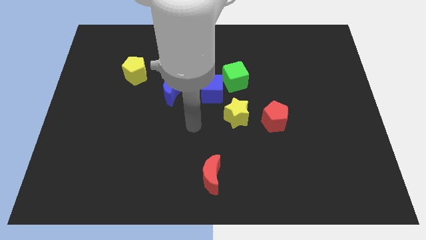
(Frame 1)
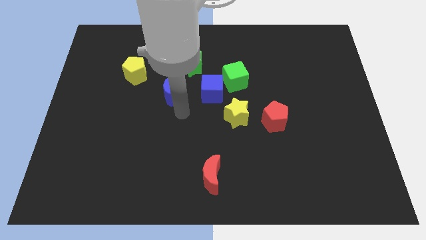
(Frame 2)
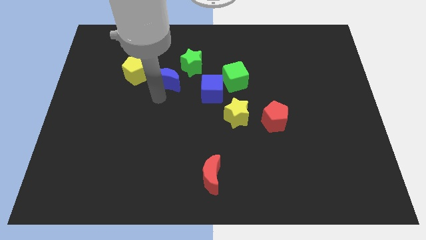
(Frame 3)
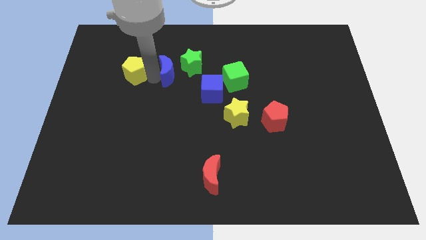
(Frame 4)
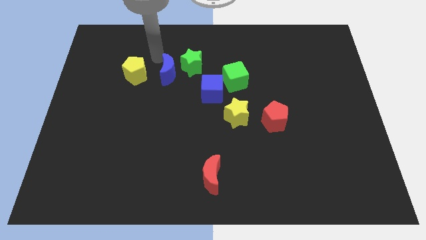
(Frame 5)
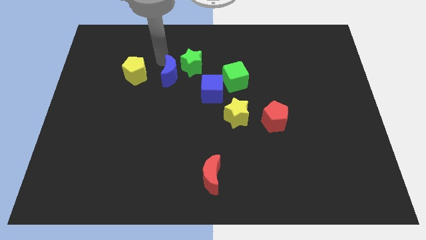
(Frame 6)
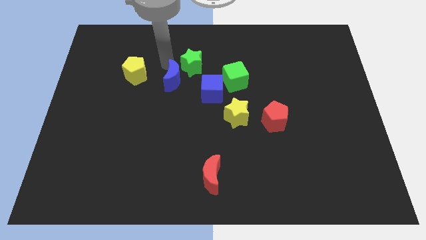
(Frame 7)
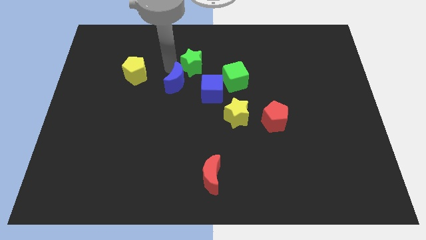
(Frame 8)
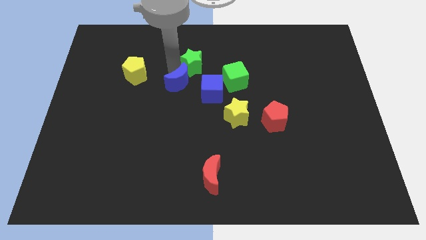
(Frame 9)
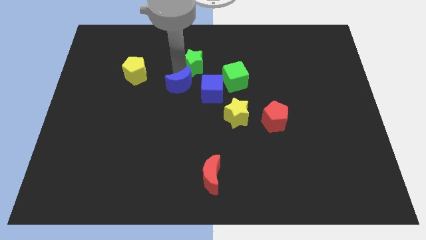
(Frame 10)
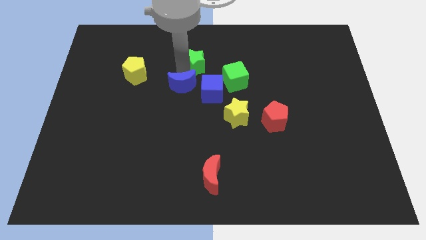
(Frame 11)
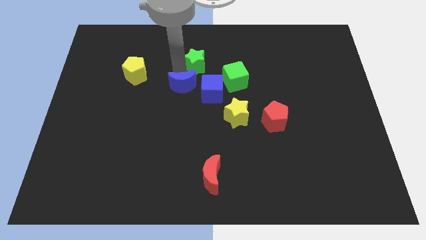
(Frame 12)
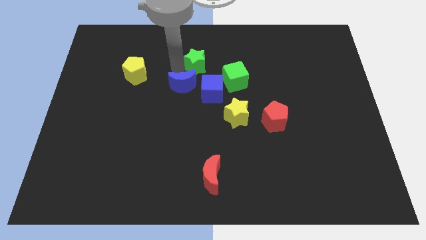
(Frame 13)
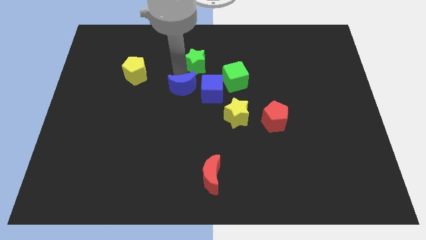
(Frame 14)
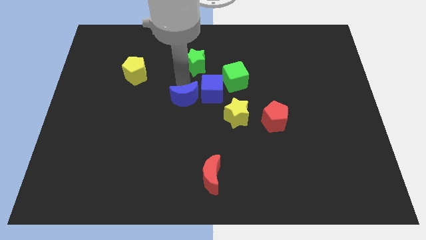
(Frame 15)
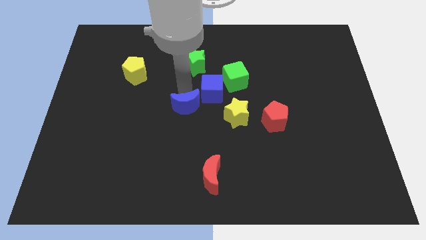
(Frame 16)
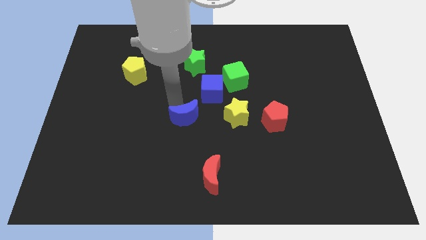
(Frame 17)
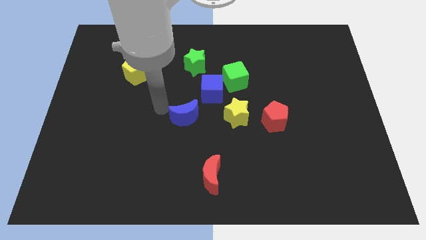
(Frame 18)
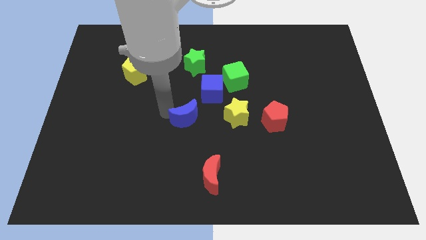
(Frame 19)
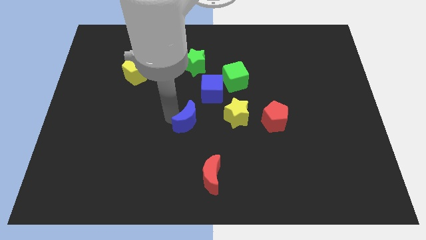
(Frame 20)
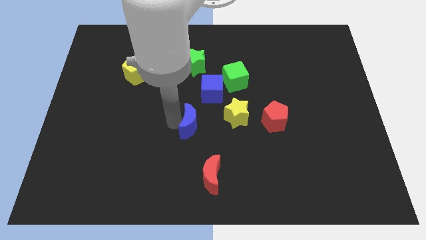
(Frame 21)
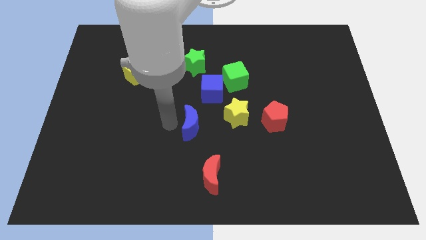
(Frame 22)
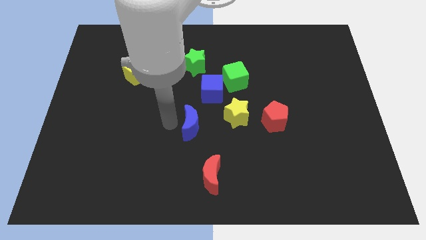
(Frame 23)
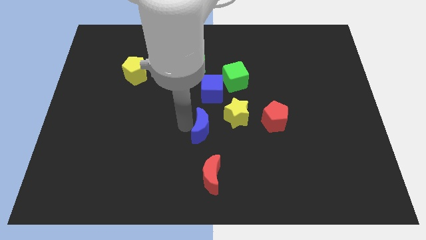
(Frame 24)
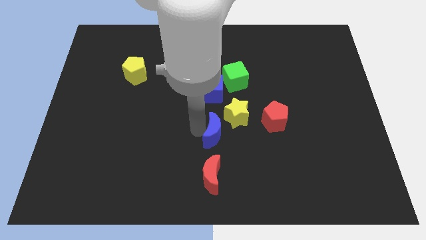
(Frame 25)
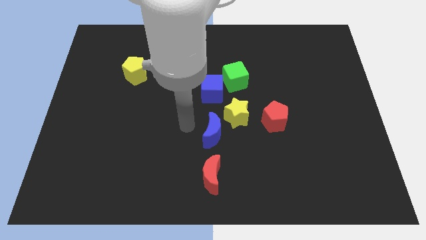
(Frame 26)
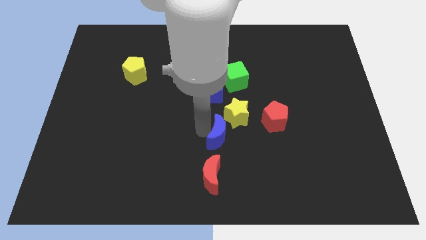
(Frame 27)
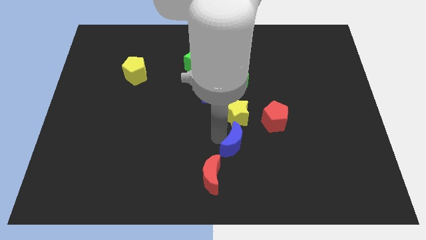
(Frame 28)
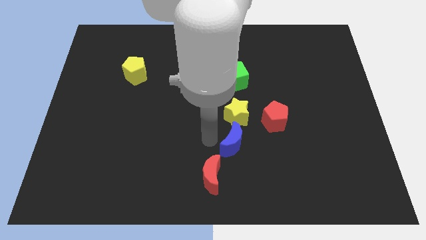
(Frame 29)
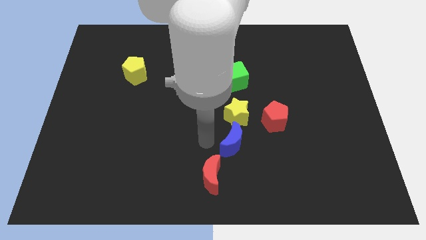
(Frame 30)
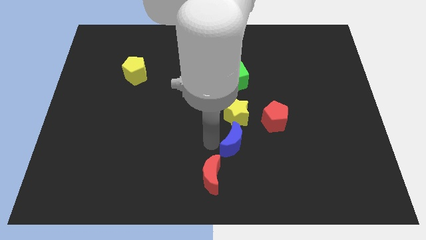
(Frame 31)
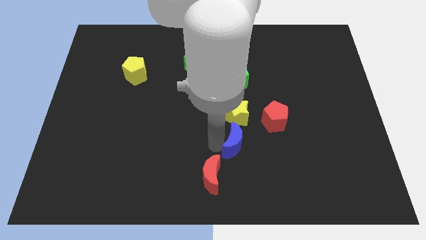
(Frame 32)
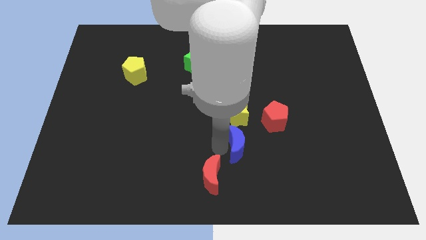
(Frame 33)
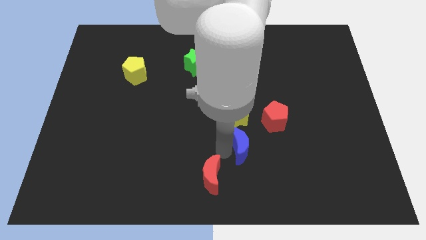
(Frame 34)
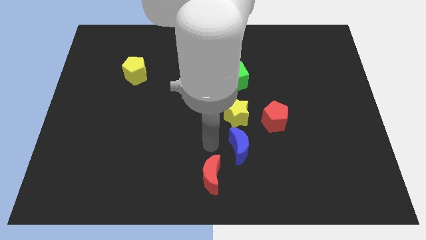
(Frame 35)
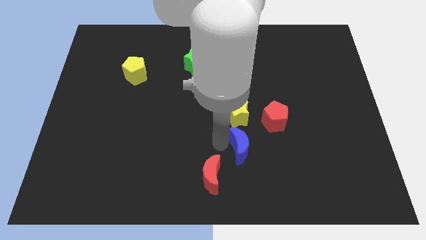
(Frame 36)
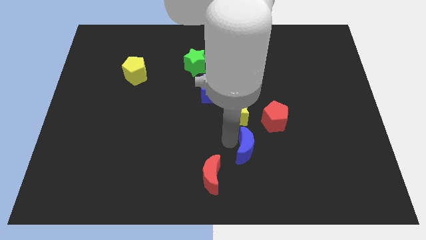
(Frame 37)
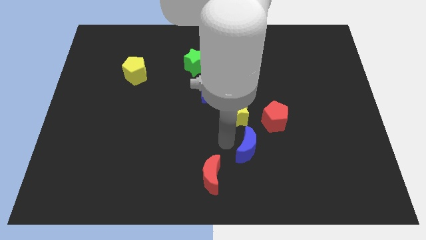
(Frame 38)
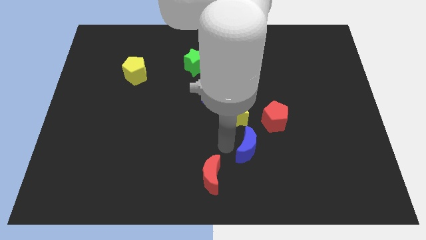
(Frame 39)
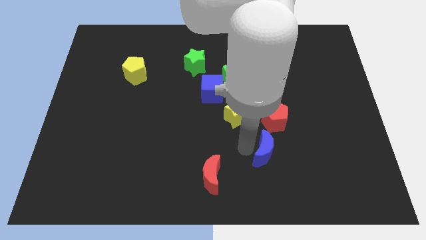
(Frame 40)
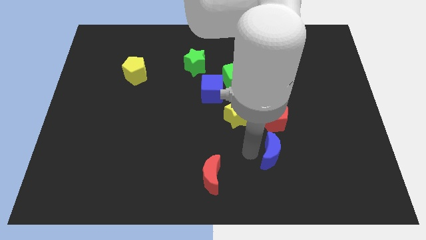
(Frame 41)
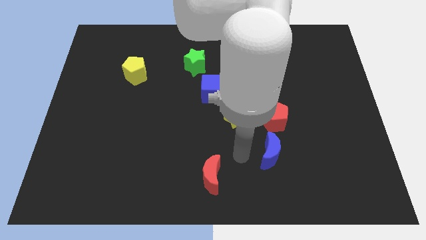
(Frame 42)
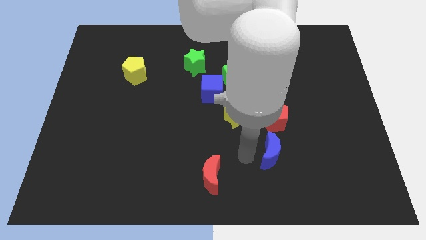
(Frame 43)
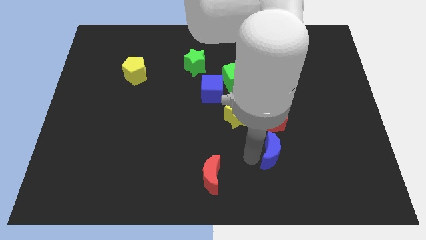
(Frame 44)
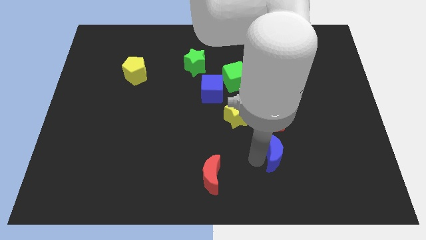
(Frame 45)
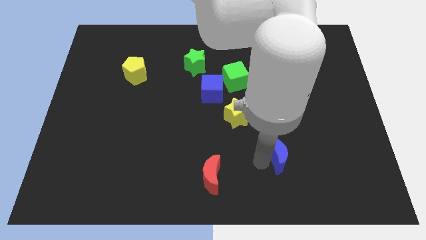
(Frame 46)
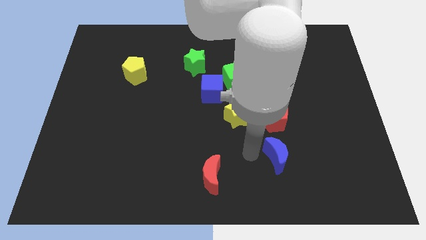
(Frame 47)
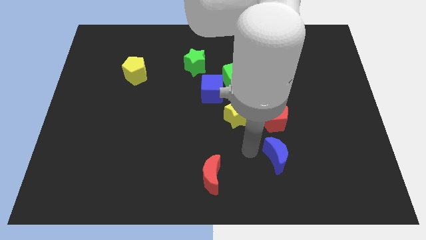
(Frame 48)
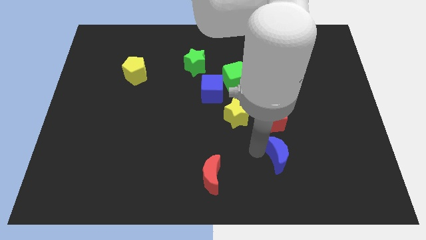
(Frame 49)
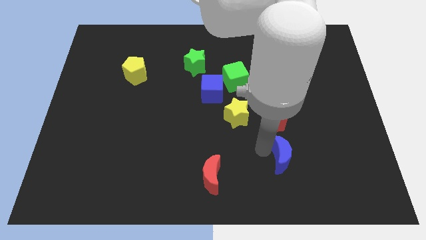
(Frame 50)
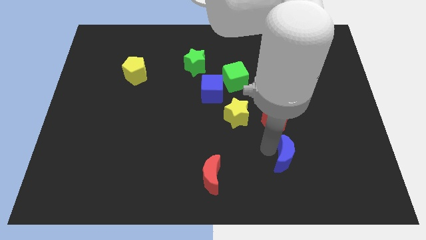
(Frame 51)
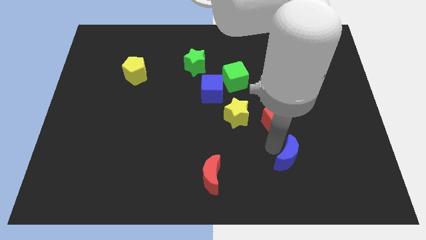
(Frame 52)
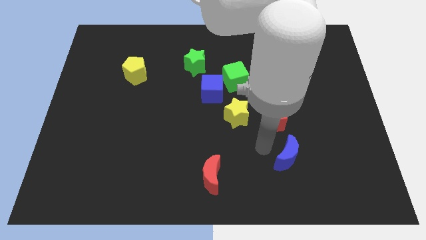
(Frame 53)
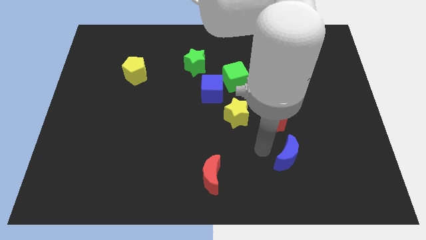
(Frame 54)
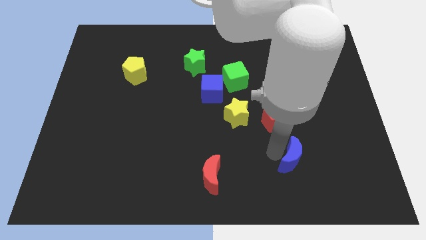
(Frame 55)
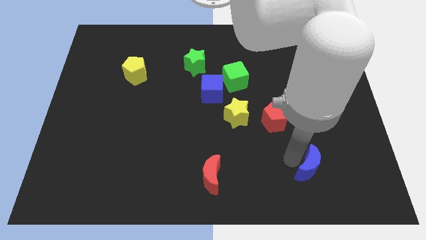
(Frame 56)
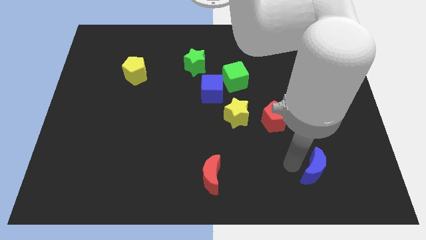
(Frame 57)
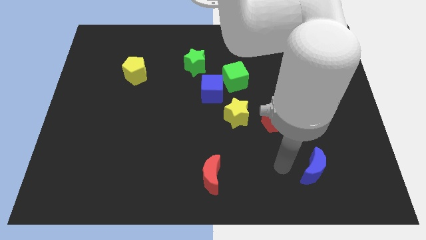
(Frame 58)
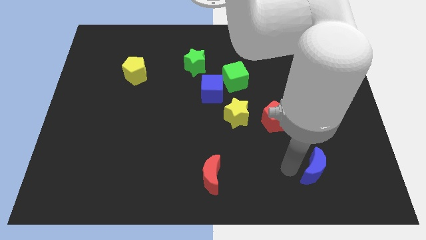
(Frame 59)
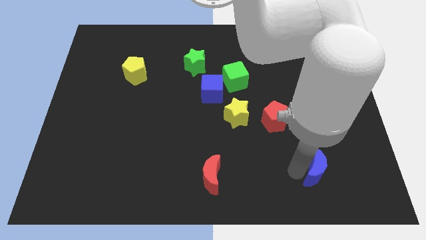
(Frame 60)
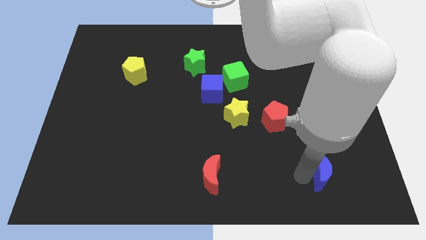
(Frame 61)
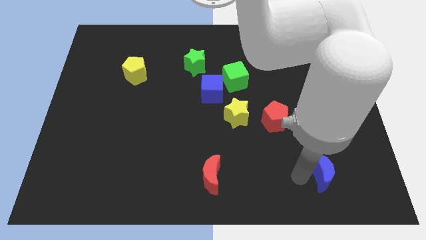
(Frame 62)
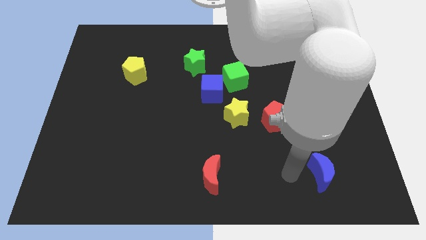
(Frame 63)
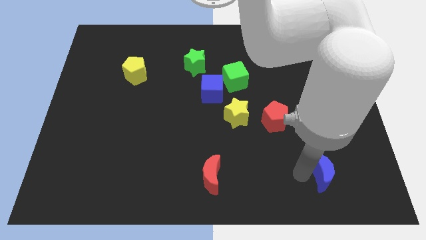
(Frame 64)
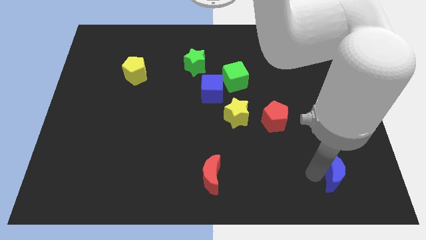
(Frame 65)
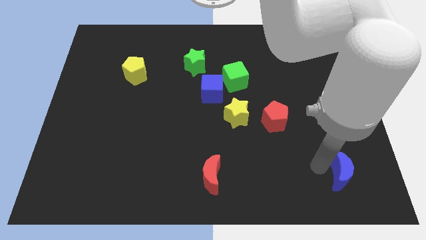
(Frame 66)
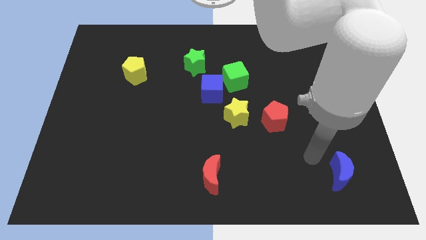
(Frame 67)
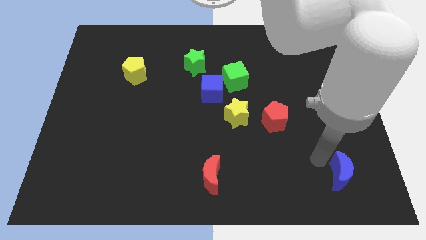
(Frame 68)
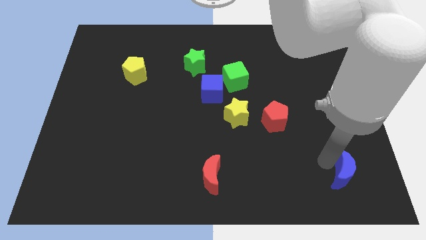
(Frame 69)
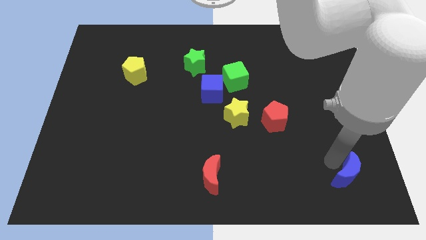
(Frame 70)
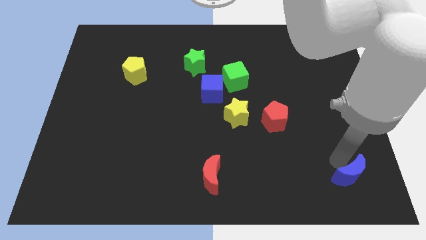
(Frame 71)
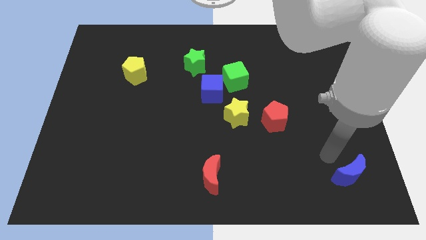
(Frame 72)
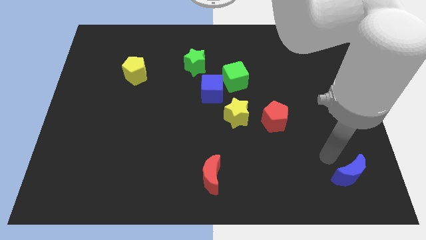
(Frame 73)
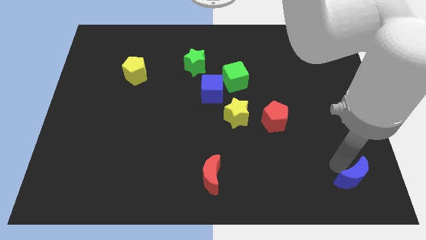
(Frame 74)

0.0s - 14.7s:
move the blue moon to the bottom right
